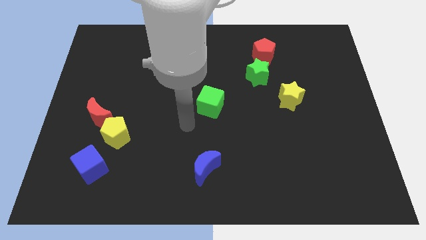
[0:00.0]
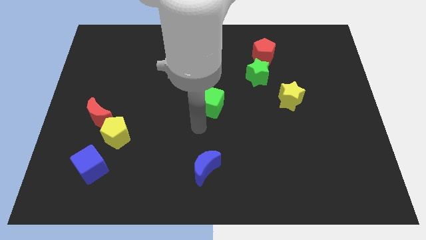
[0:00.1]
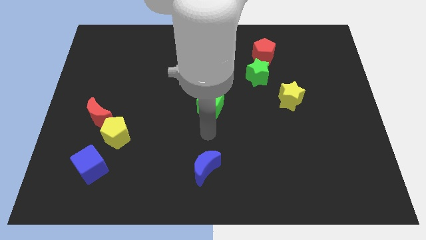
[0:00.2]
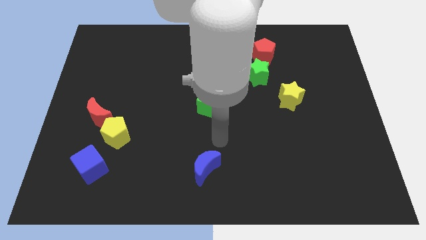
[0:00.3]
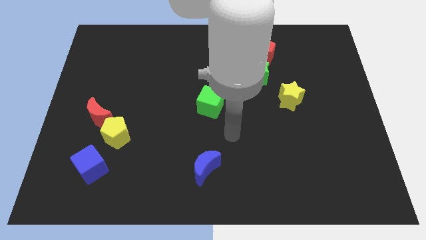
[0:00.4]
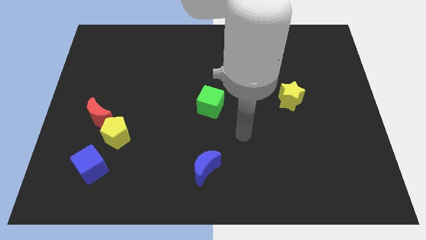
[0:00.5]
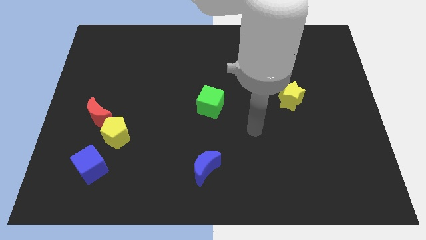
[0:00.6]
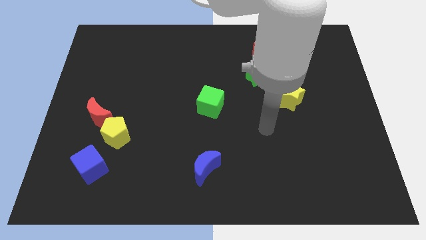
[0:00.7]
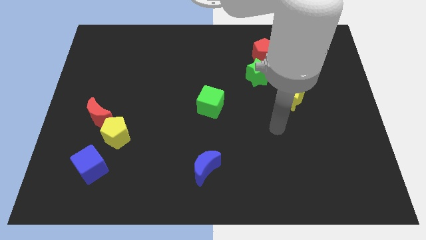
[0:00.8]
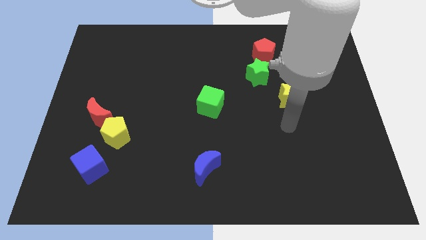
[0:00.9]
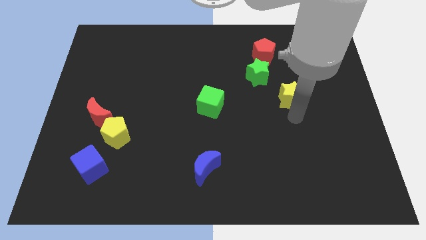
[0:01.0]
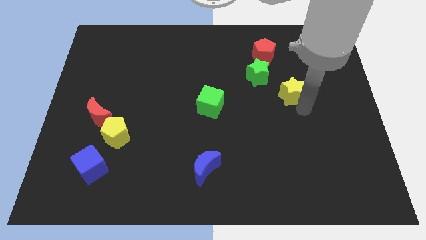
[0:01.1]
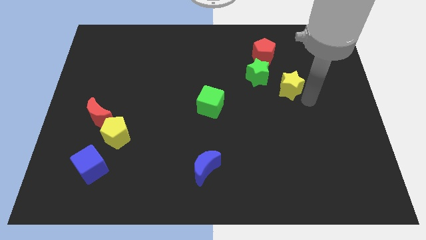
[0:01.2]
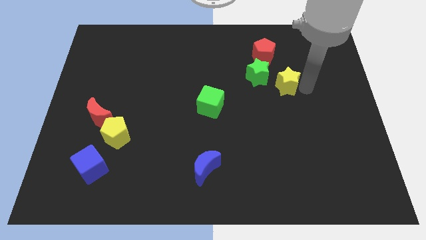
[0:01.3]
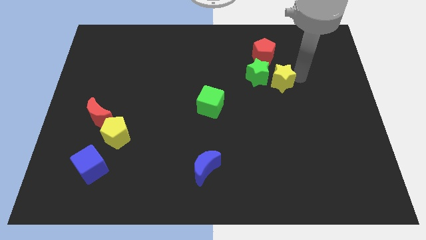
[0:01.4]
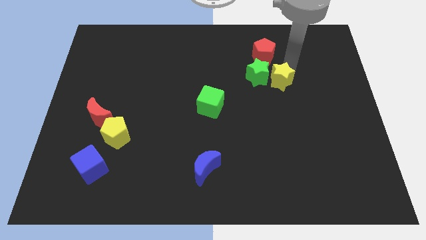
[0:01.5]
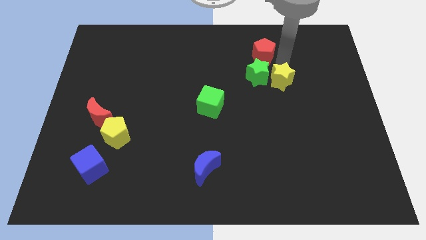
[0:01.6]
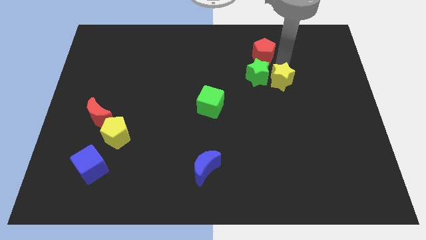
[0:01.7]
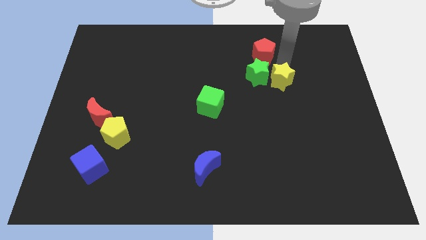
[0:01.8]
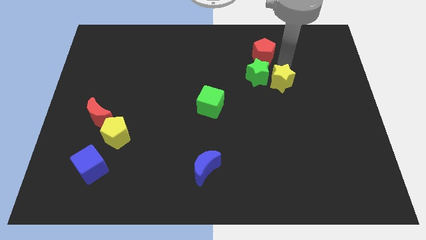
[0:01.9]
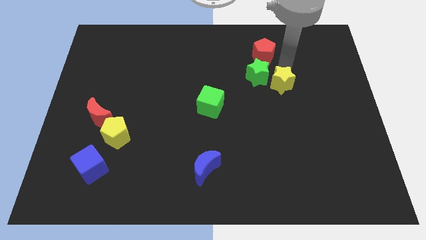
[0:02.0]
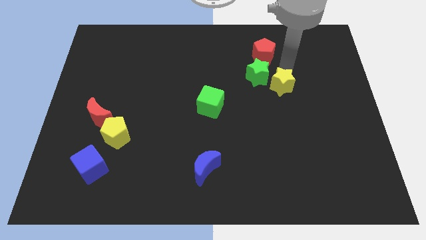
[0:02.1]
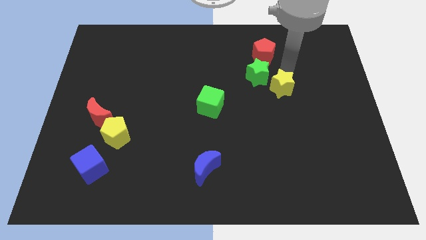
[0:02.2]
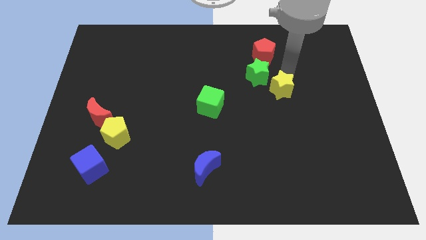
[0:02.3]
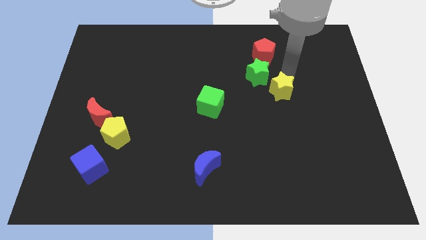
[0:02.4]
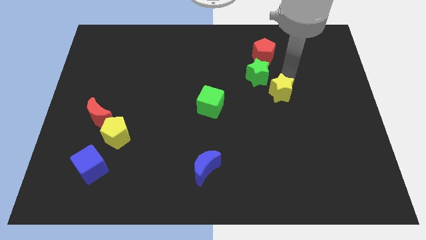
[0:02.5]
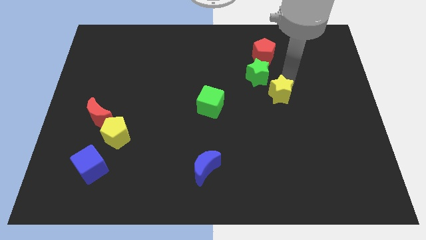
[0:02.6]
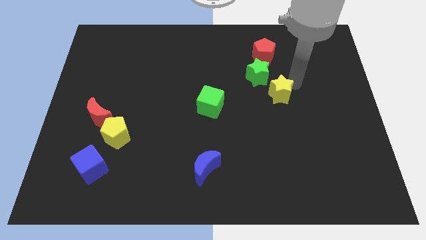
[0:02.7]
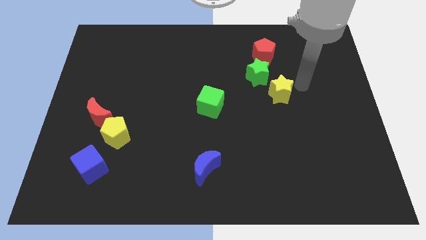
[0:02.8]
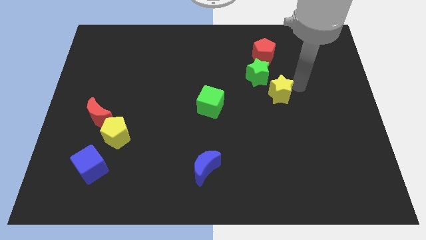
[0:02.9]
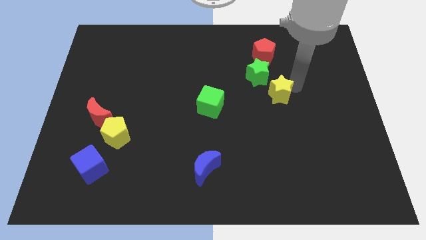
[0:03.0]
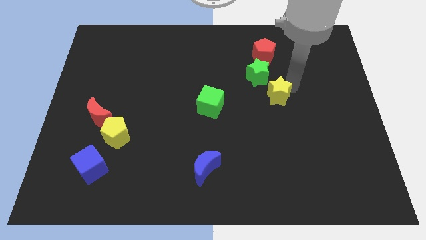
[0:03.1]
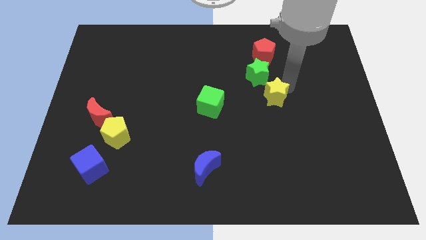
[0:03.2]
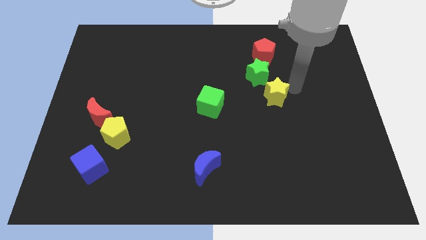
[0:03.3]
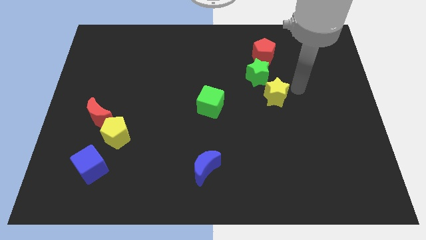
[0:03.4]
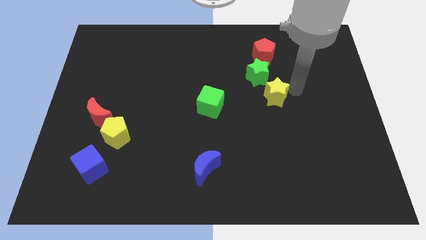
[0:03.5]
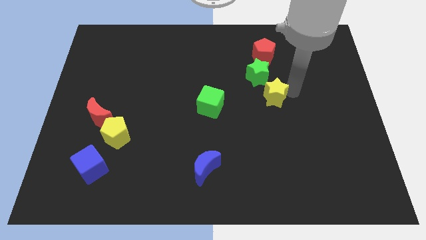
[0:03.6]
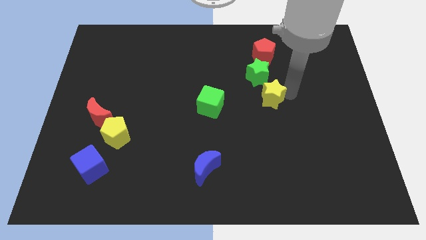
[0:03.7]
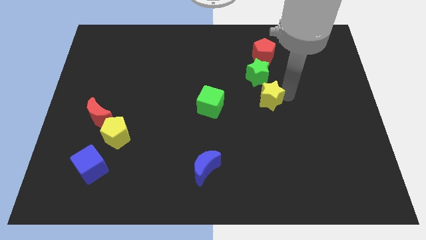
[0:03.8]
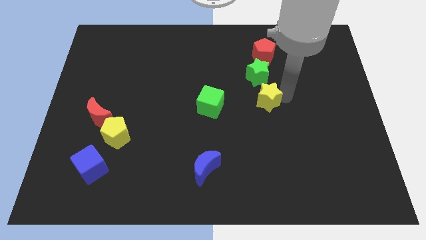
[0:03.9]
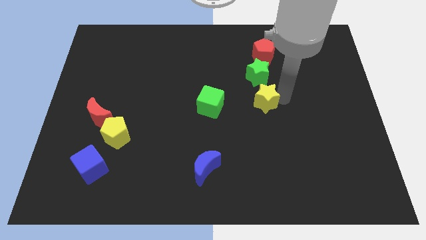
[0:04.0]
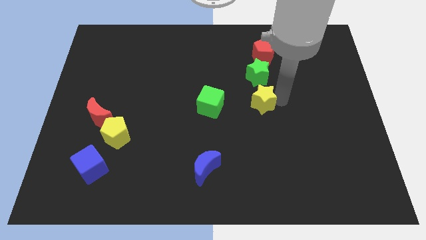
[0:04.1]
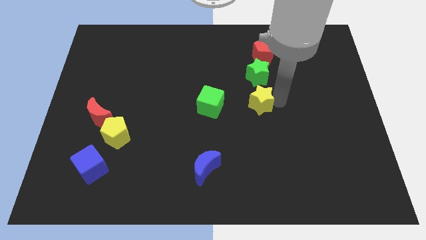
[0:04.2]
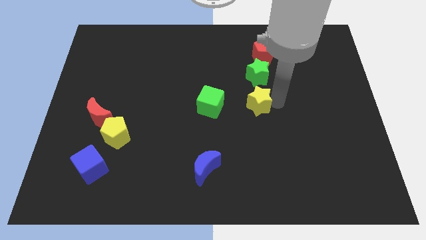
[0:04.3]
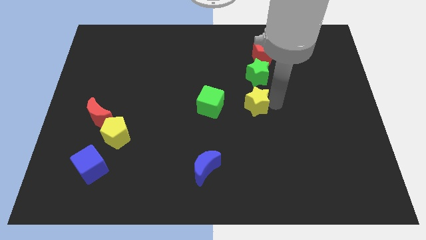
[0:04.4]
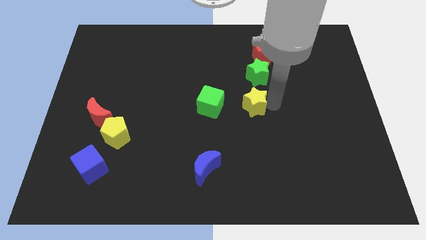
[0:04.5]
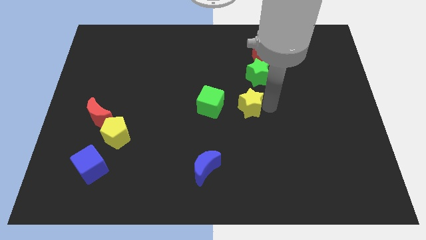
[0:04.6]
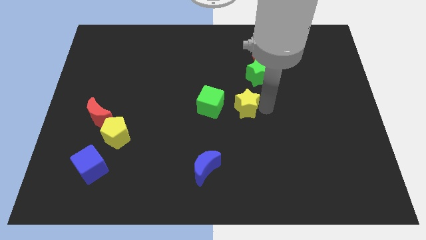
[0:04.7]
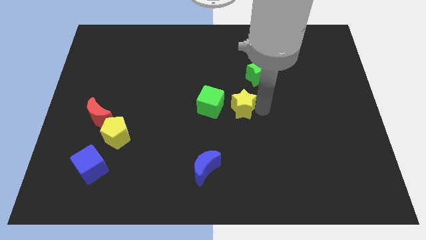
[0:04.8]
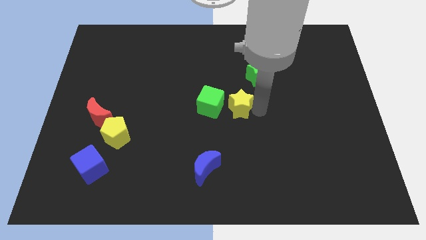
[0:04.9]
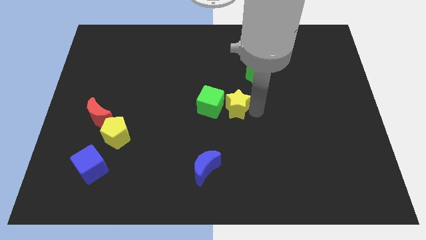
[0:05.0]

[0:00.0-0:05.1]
push the yellow star to the green cube

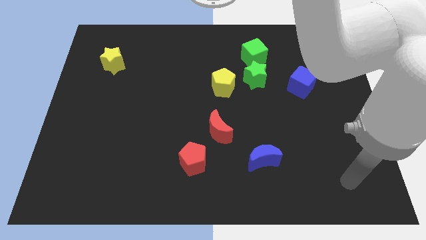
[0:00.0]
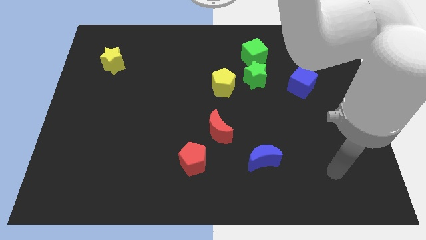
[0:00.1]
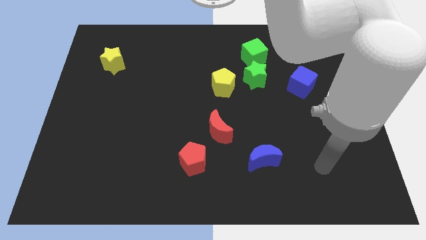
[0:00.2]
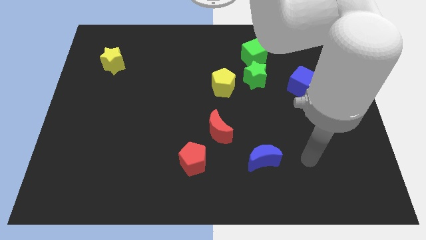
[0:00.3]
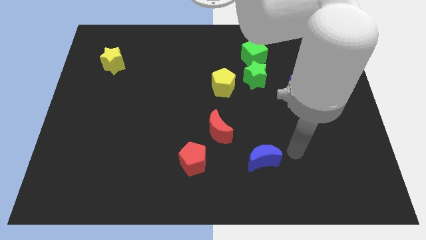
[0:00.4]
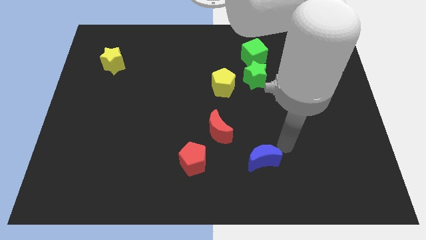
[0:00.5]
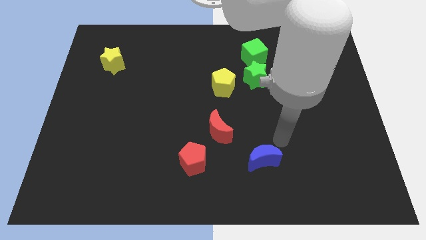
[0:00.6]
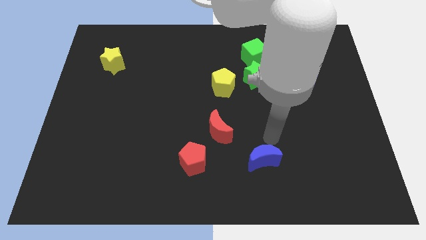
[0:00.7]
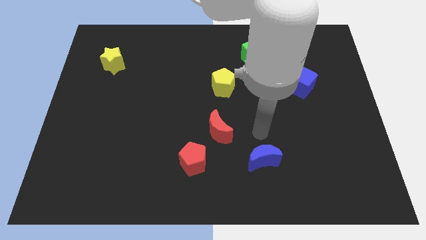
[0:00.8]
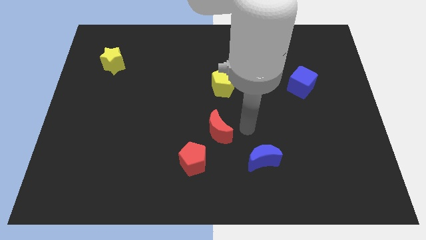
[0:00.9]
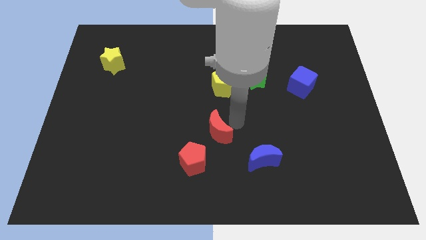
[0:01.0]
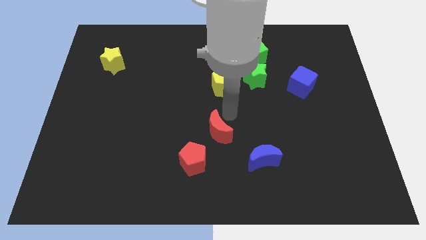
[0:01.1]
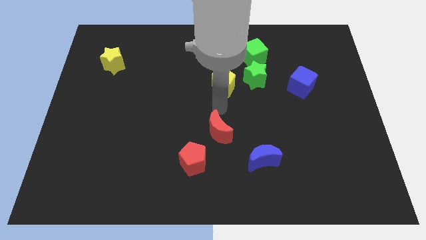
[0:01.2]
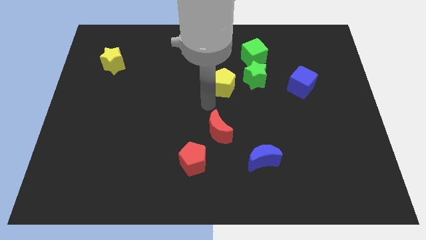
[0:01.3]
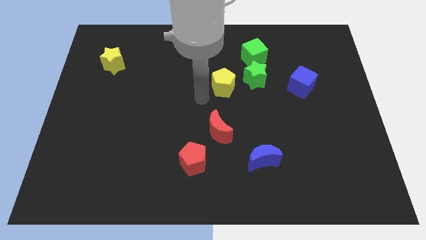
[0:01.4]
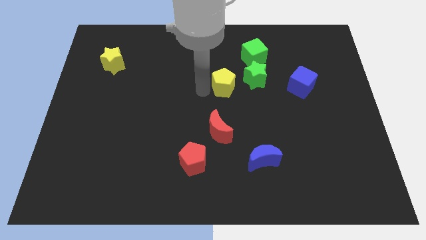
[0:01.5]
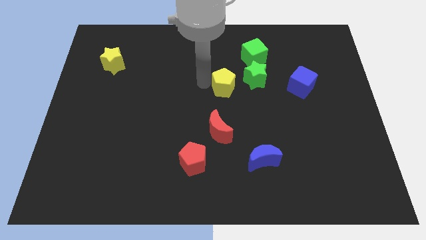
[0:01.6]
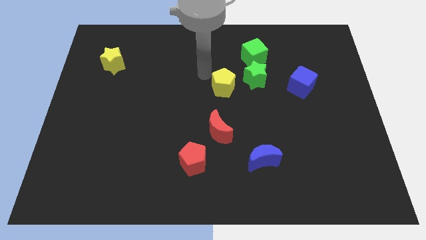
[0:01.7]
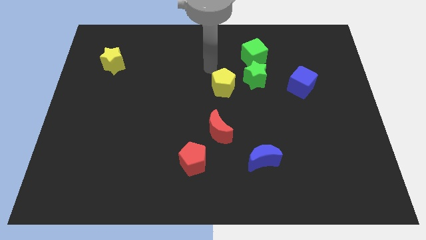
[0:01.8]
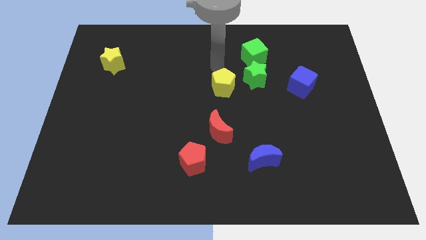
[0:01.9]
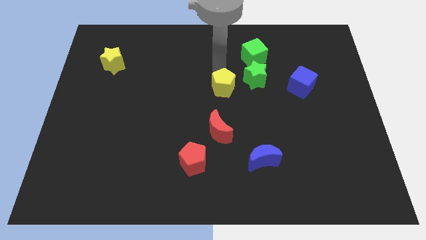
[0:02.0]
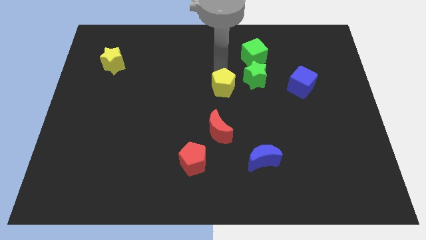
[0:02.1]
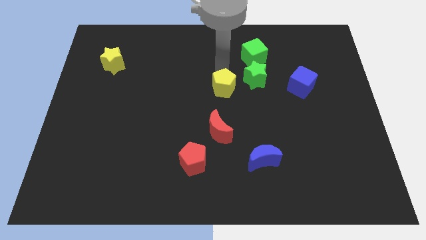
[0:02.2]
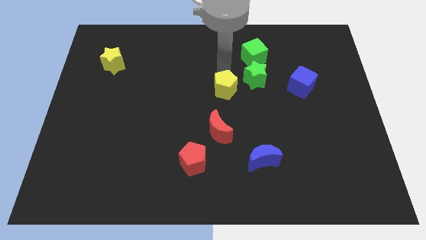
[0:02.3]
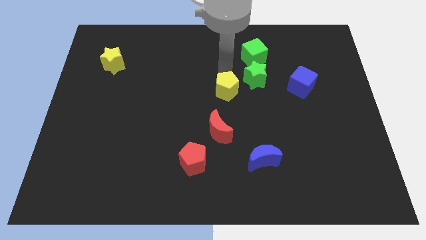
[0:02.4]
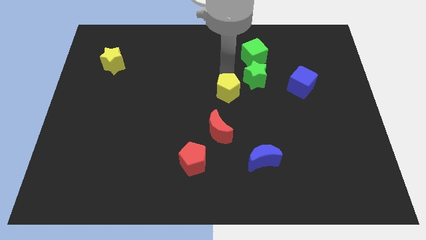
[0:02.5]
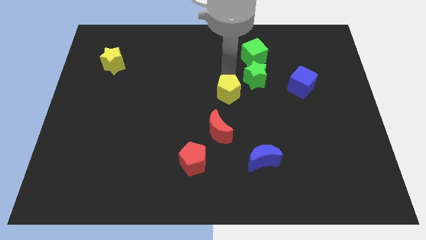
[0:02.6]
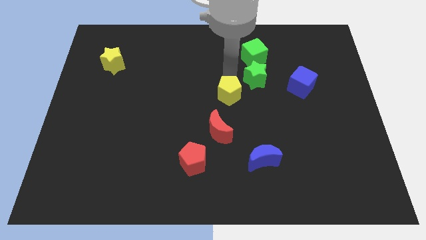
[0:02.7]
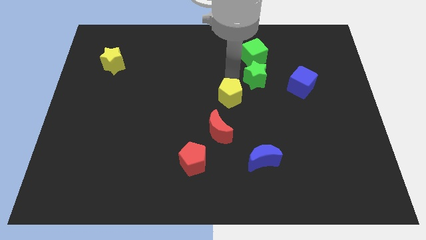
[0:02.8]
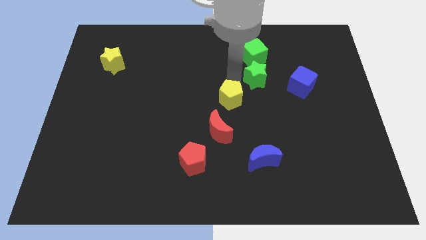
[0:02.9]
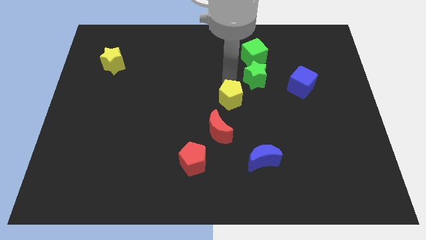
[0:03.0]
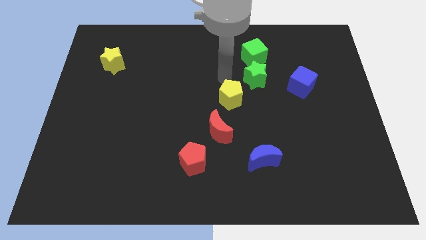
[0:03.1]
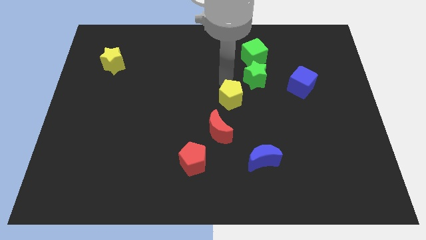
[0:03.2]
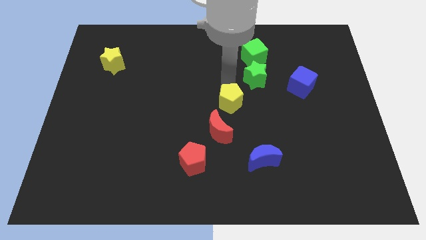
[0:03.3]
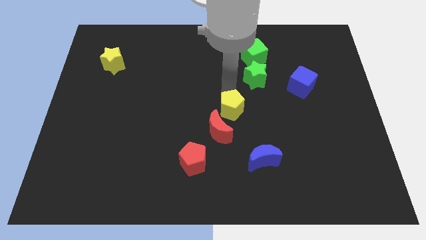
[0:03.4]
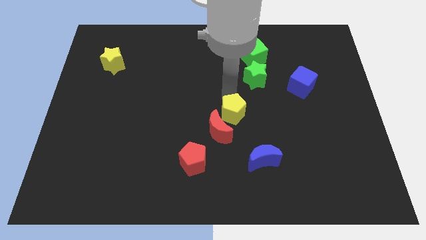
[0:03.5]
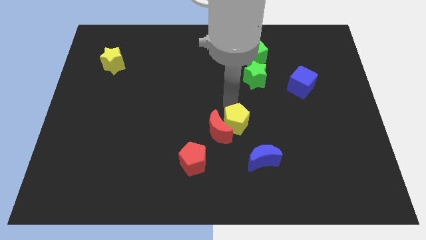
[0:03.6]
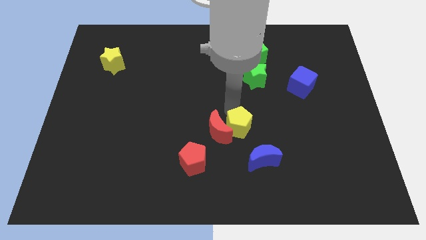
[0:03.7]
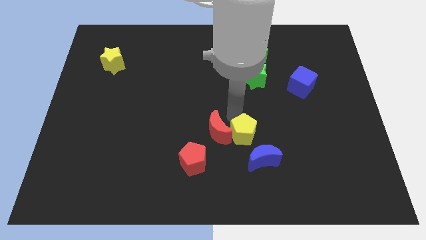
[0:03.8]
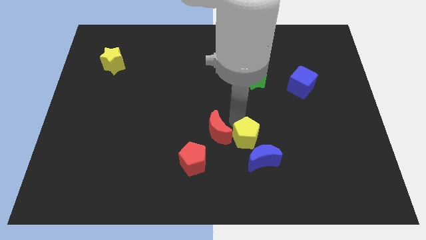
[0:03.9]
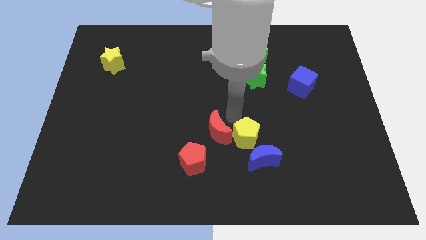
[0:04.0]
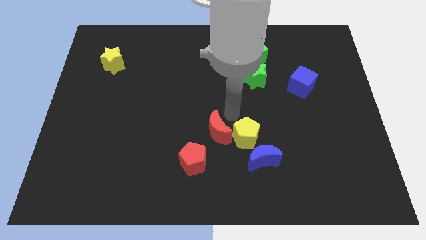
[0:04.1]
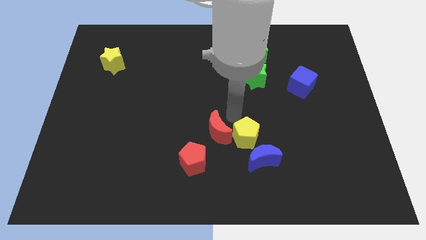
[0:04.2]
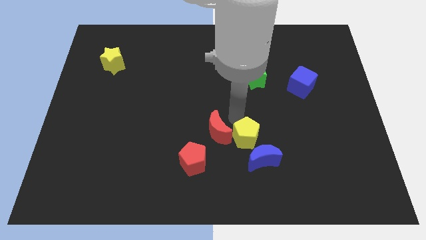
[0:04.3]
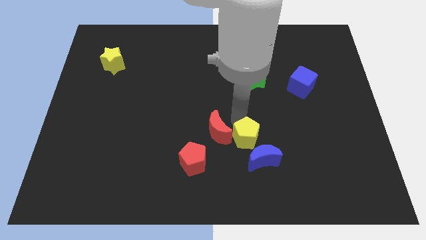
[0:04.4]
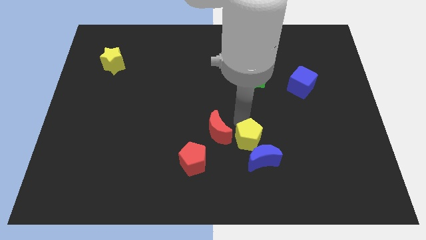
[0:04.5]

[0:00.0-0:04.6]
move the yellow pentagon next to the blue moon
